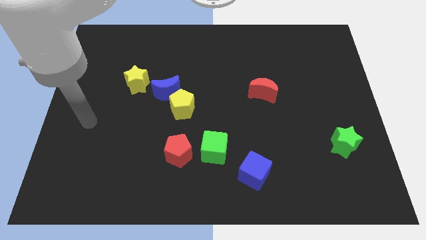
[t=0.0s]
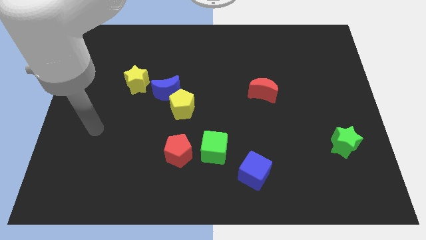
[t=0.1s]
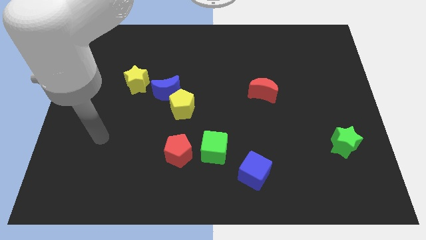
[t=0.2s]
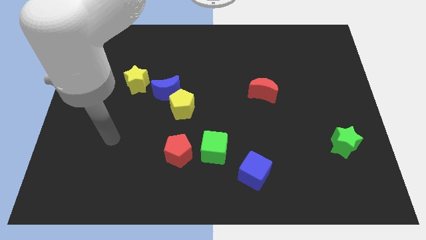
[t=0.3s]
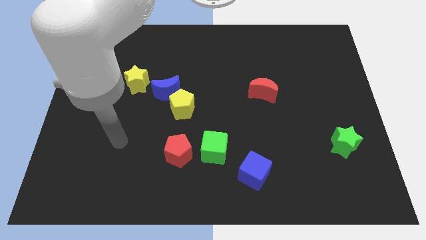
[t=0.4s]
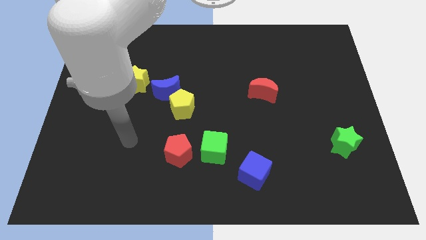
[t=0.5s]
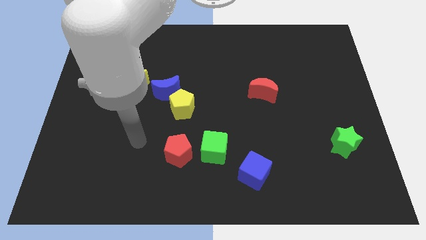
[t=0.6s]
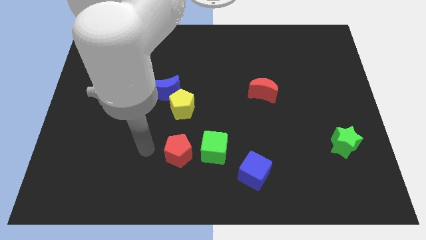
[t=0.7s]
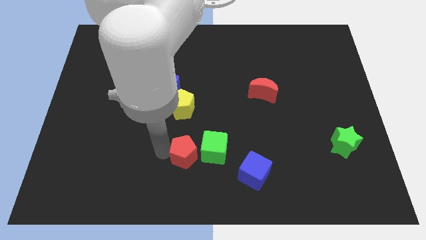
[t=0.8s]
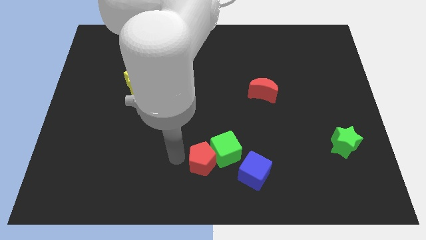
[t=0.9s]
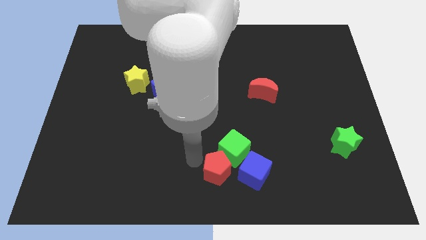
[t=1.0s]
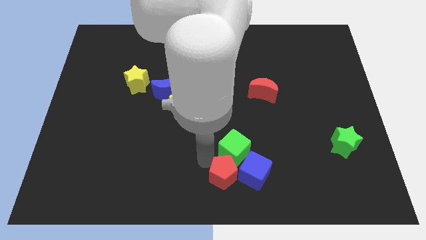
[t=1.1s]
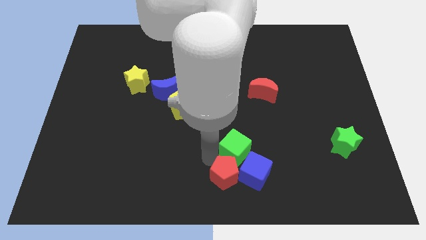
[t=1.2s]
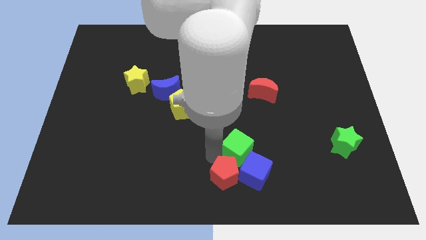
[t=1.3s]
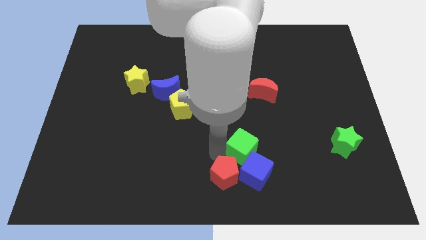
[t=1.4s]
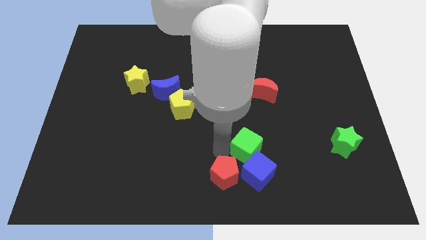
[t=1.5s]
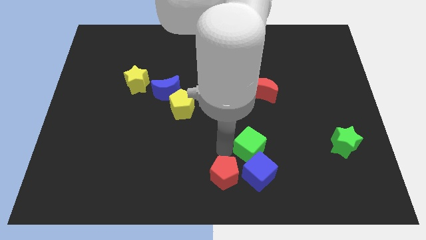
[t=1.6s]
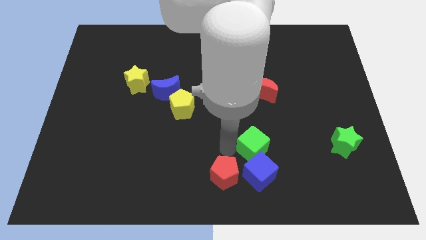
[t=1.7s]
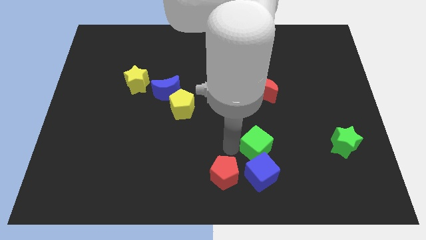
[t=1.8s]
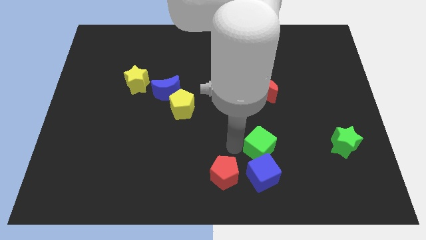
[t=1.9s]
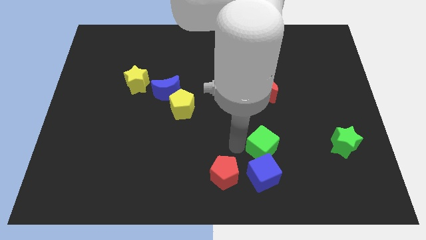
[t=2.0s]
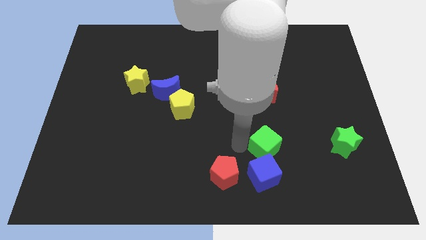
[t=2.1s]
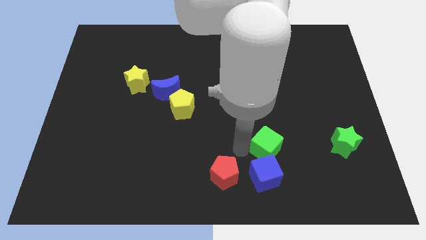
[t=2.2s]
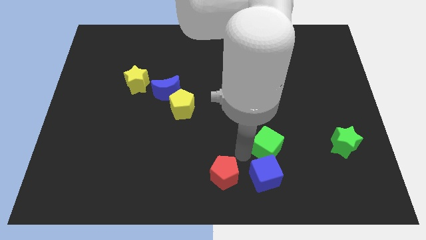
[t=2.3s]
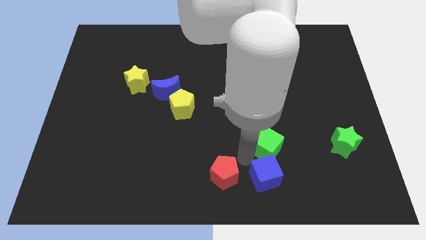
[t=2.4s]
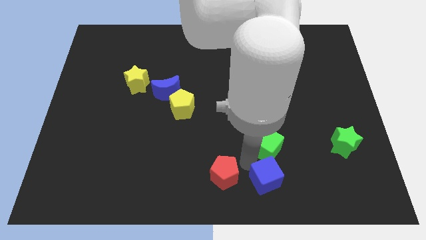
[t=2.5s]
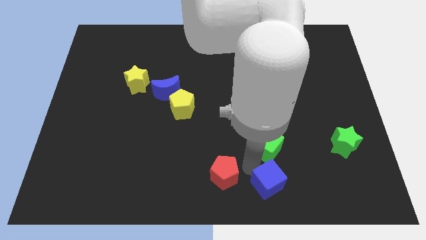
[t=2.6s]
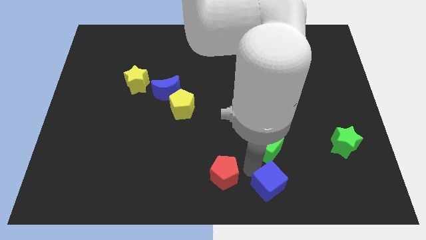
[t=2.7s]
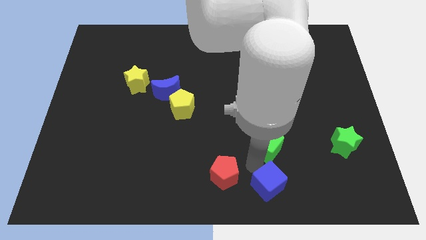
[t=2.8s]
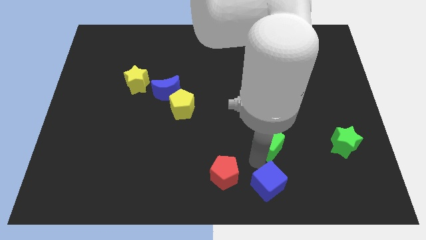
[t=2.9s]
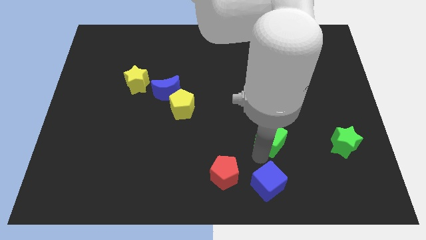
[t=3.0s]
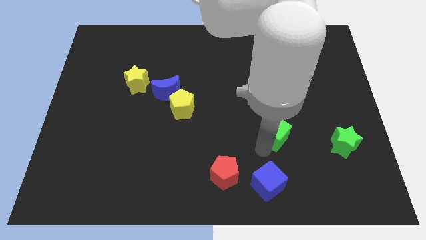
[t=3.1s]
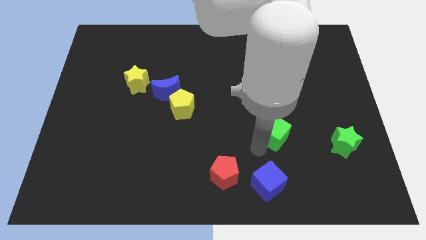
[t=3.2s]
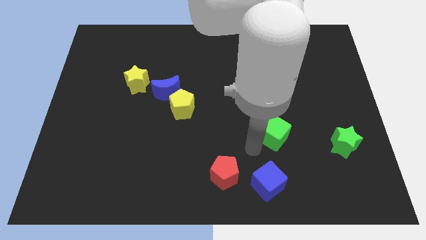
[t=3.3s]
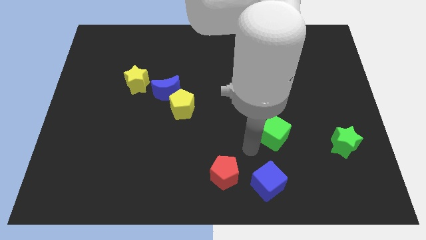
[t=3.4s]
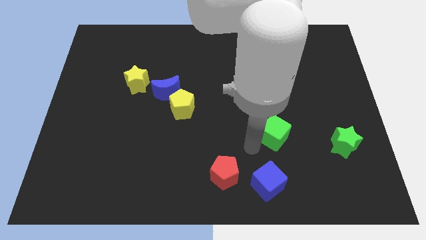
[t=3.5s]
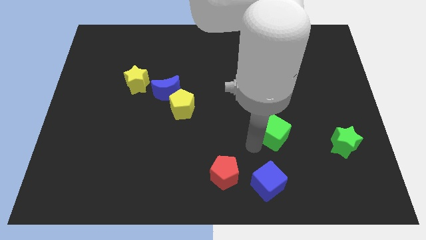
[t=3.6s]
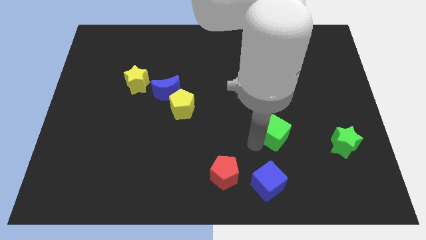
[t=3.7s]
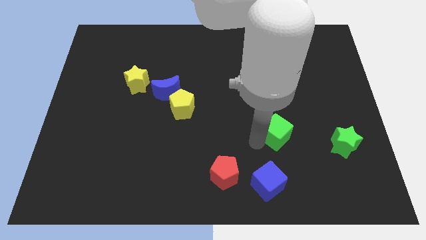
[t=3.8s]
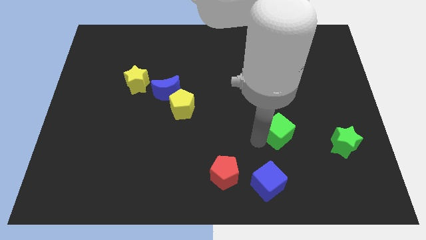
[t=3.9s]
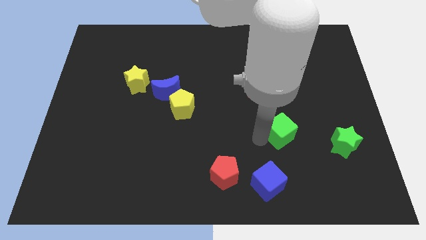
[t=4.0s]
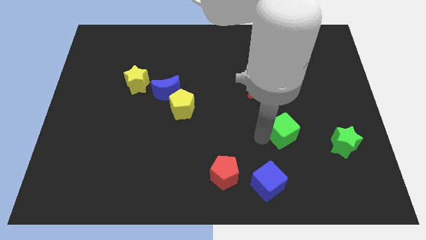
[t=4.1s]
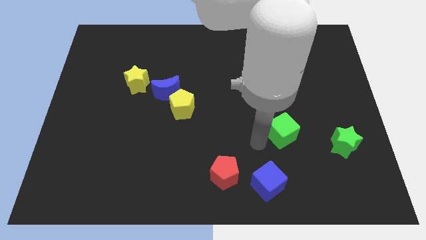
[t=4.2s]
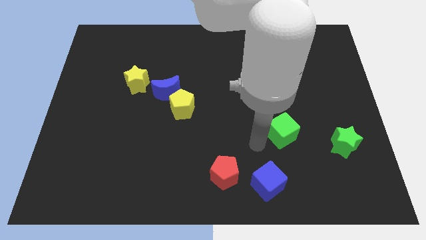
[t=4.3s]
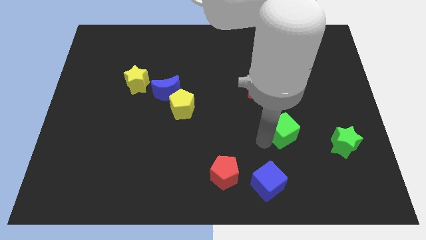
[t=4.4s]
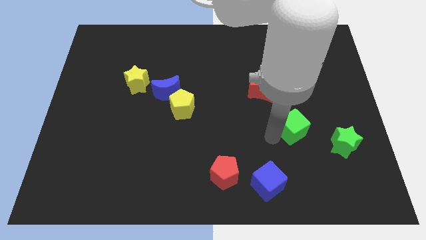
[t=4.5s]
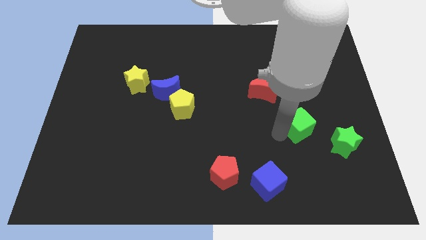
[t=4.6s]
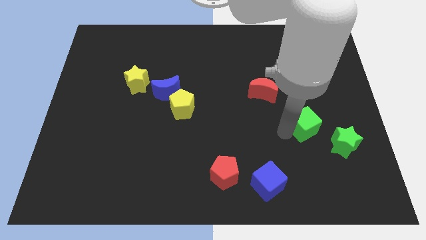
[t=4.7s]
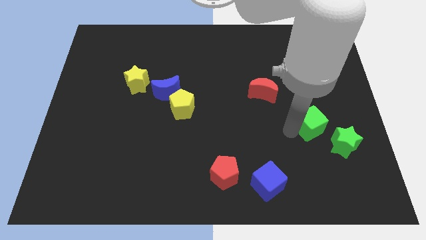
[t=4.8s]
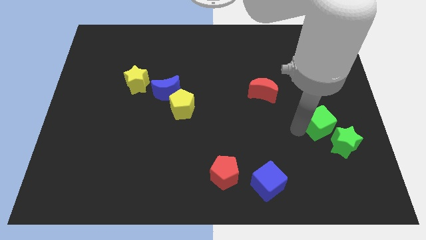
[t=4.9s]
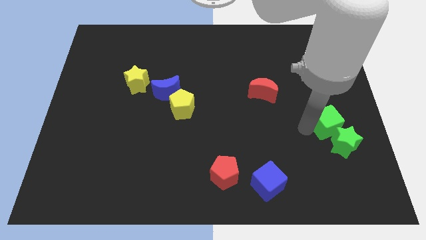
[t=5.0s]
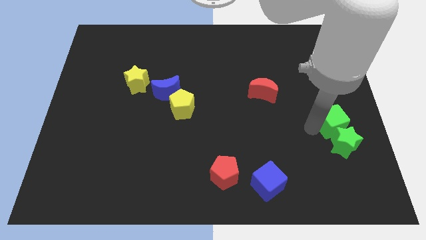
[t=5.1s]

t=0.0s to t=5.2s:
push the green cube to the right side of the board

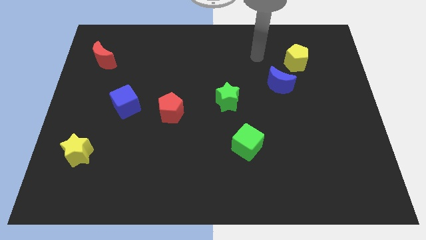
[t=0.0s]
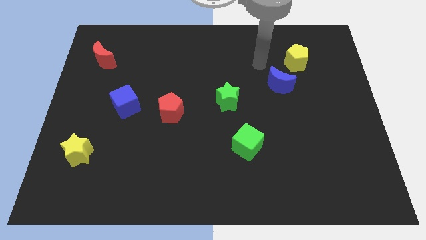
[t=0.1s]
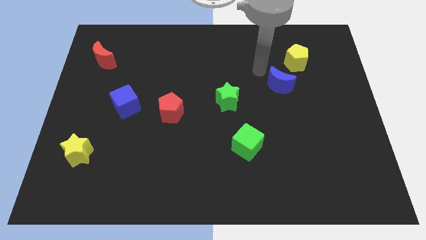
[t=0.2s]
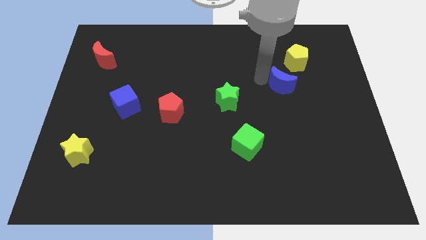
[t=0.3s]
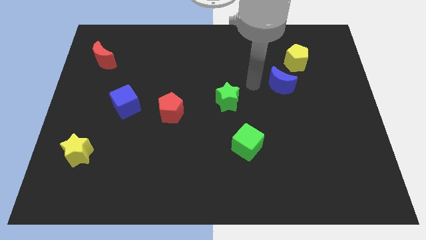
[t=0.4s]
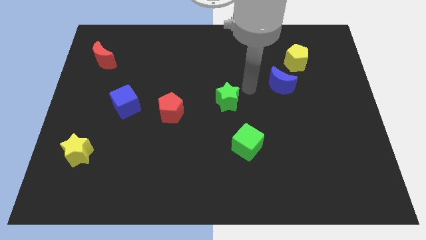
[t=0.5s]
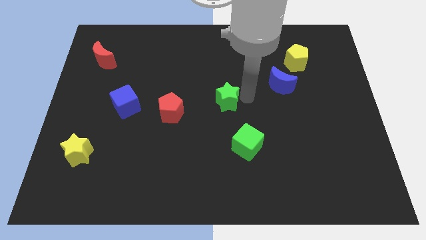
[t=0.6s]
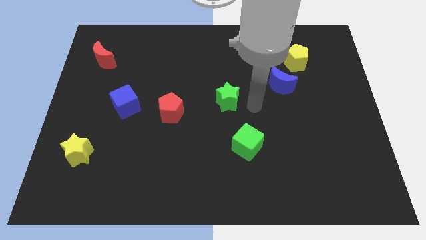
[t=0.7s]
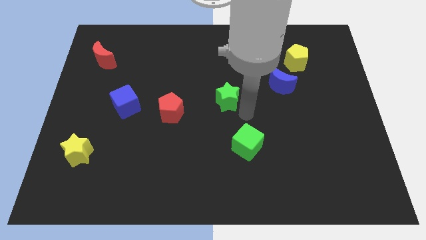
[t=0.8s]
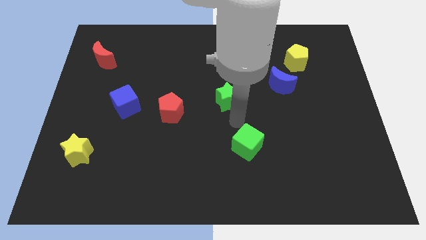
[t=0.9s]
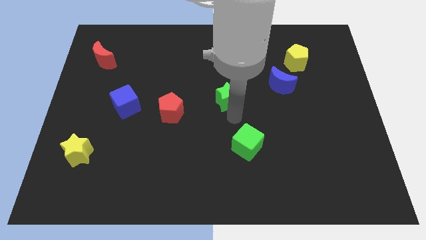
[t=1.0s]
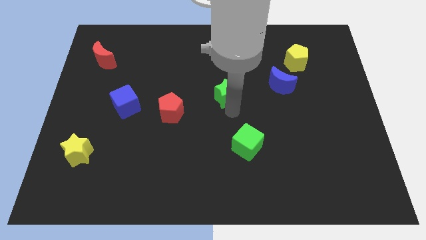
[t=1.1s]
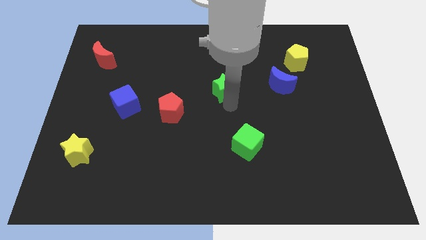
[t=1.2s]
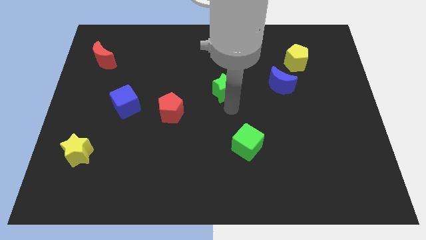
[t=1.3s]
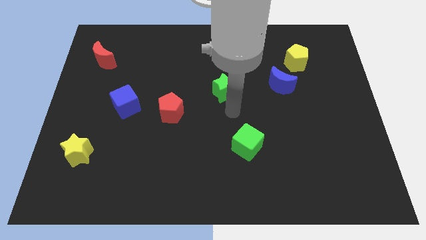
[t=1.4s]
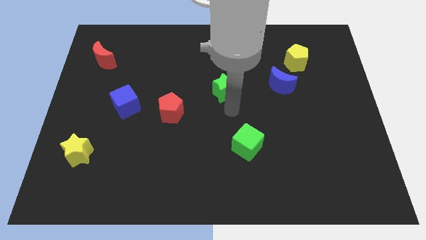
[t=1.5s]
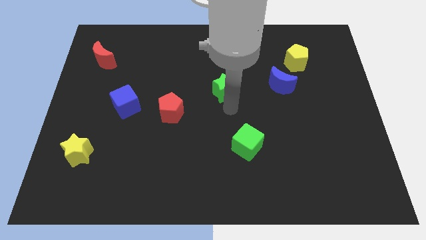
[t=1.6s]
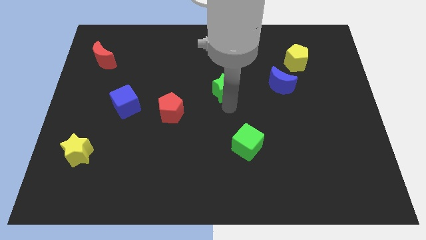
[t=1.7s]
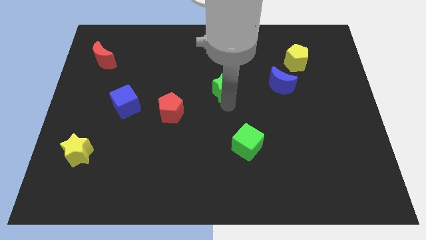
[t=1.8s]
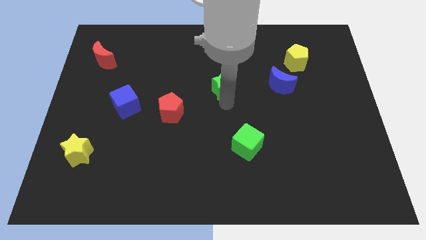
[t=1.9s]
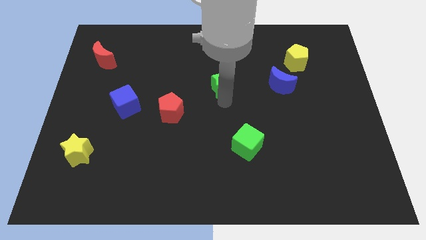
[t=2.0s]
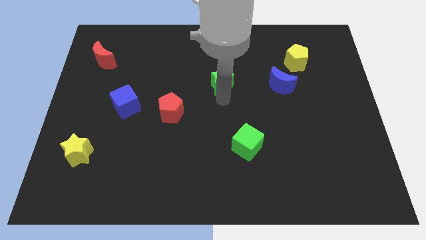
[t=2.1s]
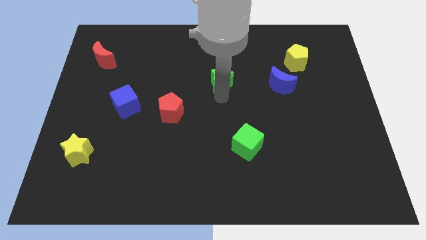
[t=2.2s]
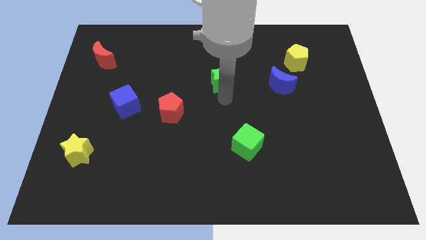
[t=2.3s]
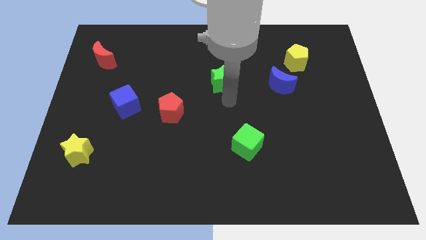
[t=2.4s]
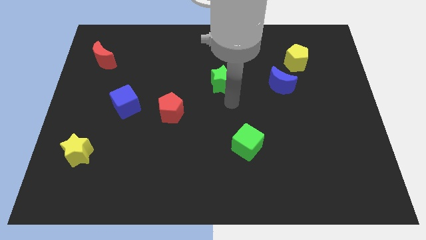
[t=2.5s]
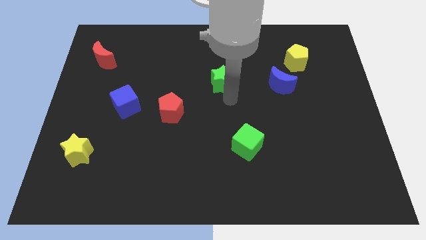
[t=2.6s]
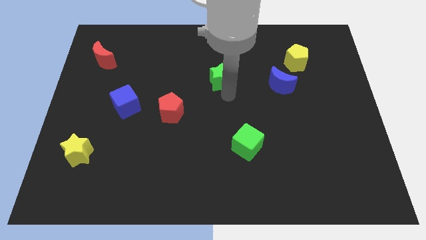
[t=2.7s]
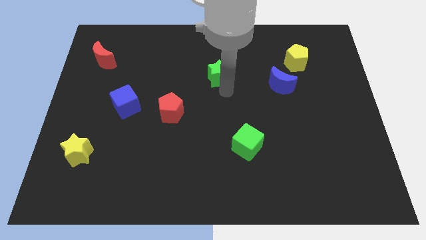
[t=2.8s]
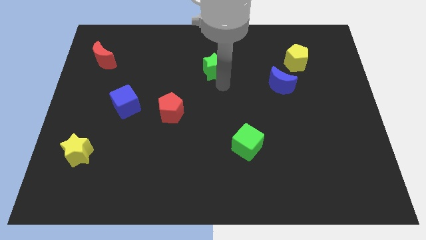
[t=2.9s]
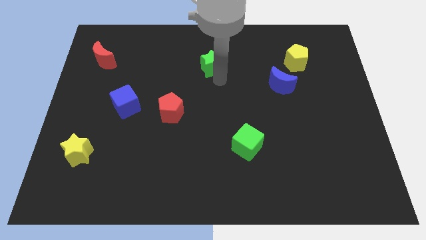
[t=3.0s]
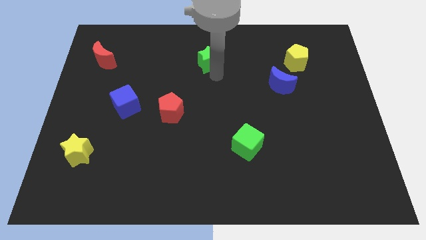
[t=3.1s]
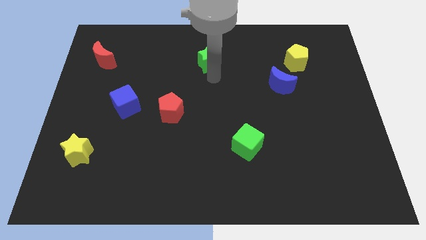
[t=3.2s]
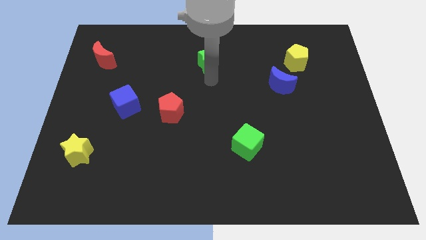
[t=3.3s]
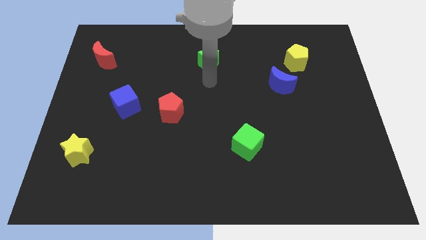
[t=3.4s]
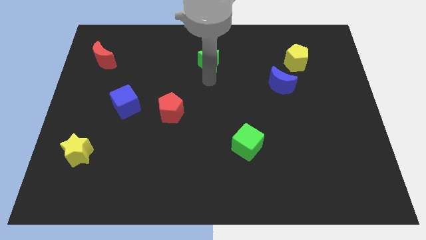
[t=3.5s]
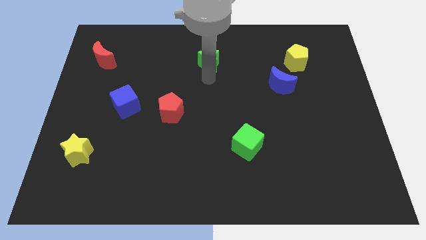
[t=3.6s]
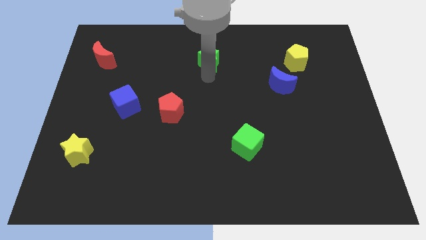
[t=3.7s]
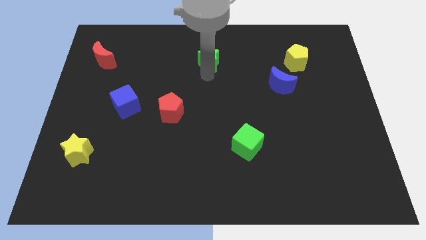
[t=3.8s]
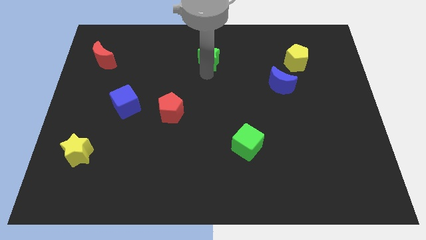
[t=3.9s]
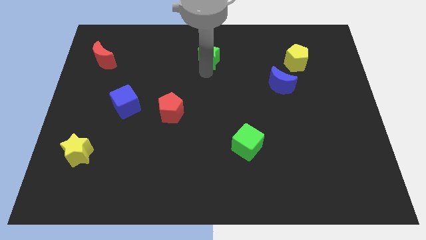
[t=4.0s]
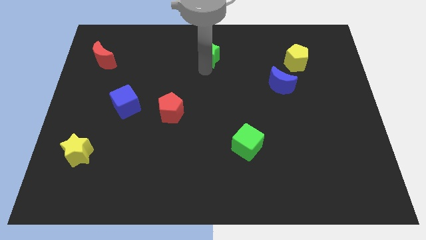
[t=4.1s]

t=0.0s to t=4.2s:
move the green star to the top
